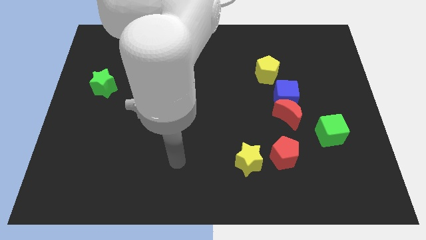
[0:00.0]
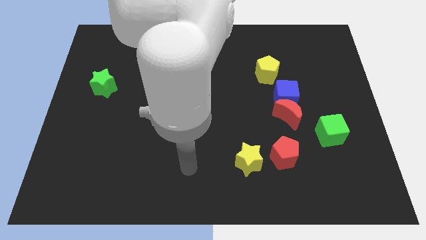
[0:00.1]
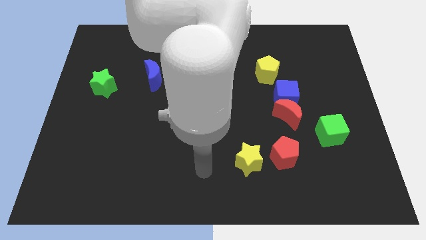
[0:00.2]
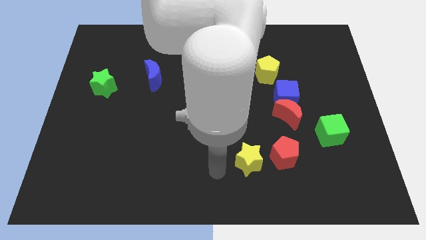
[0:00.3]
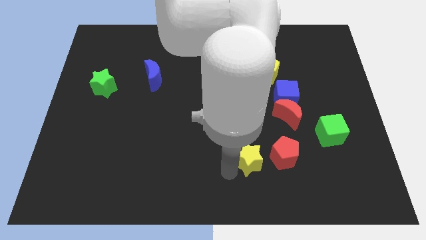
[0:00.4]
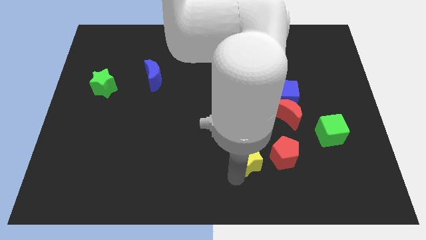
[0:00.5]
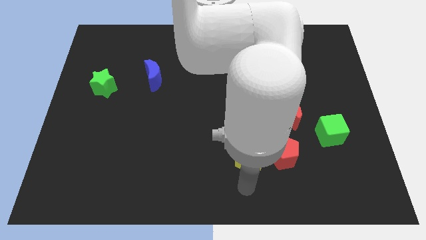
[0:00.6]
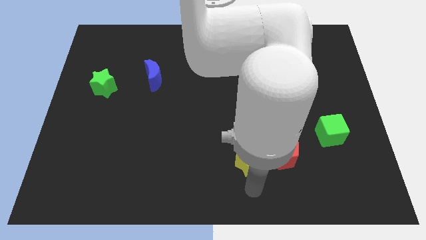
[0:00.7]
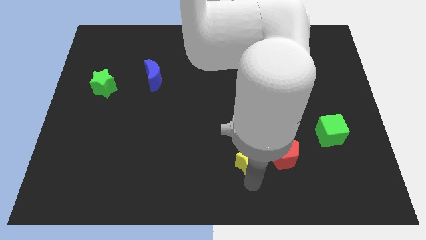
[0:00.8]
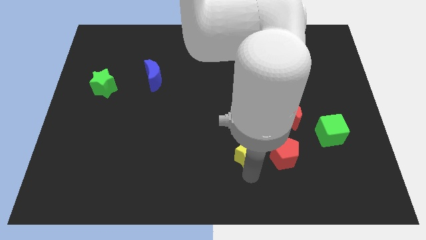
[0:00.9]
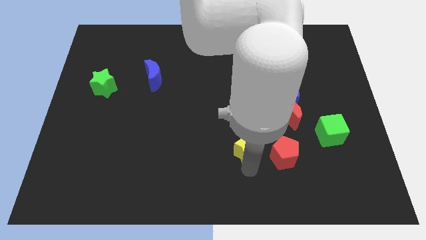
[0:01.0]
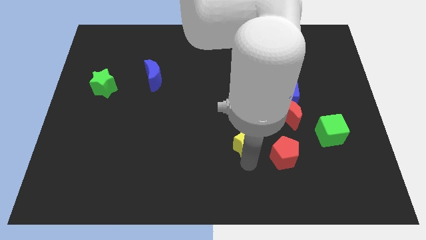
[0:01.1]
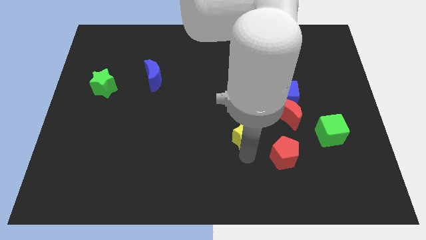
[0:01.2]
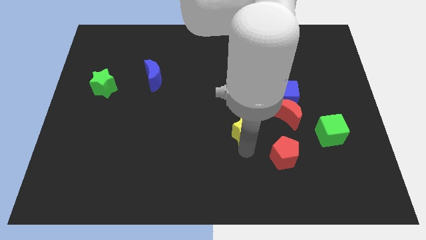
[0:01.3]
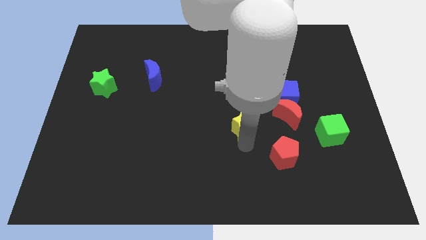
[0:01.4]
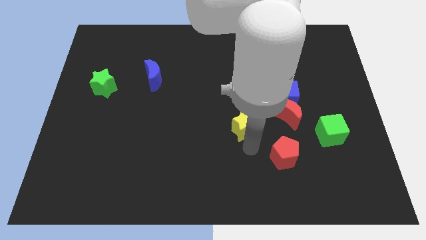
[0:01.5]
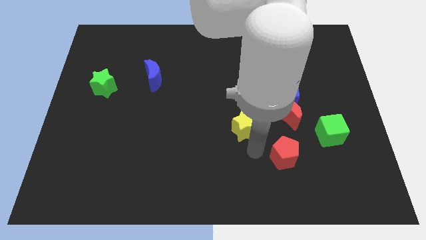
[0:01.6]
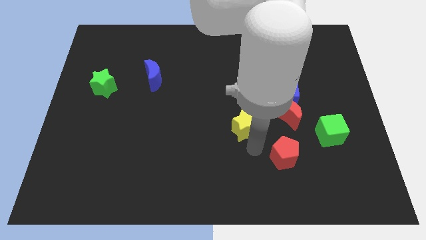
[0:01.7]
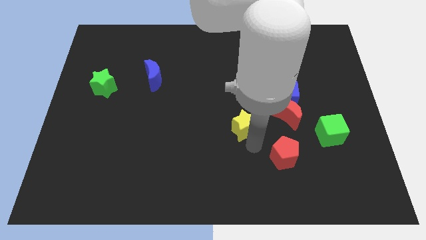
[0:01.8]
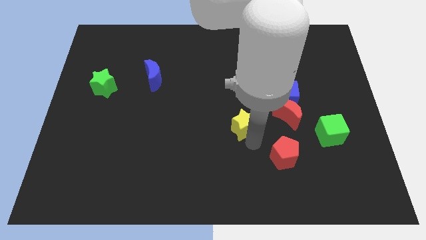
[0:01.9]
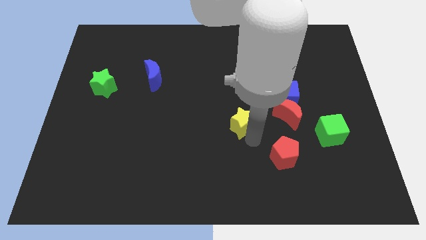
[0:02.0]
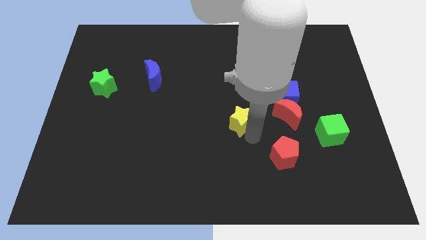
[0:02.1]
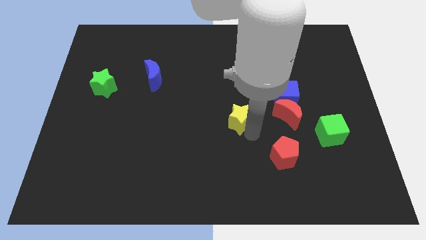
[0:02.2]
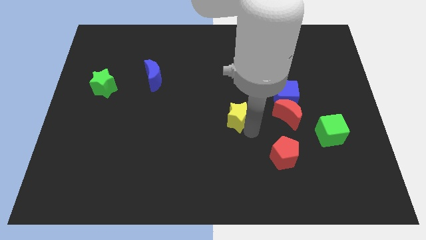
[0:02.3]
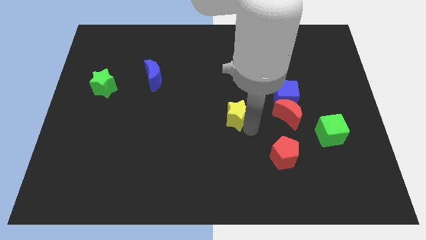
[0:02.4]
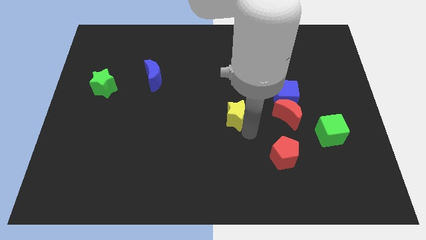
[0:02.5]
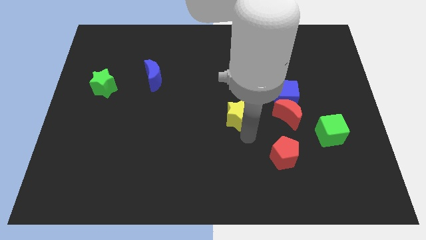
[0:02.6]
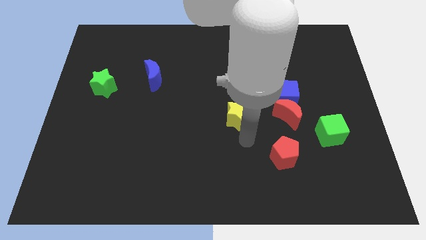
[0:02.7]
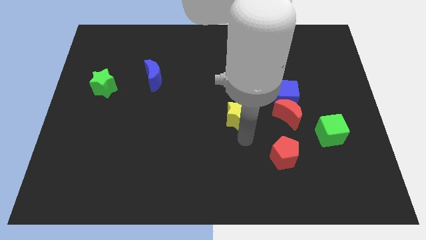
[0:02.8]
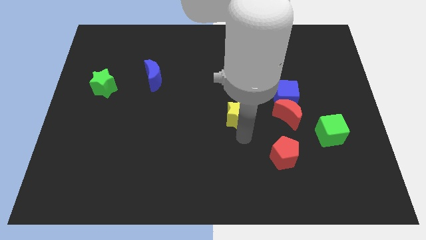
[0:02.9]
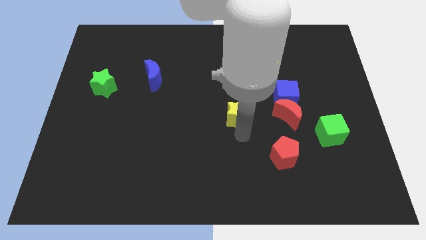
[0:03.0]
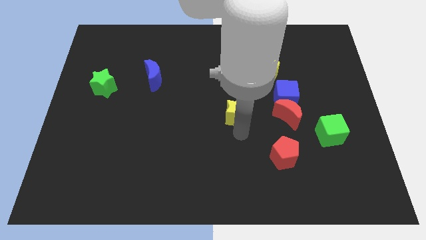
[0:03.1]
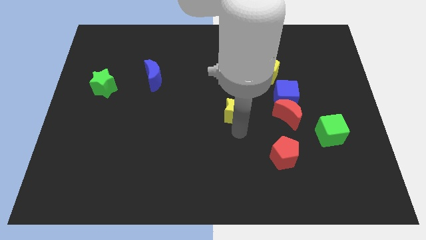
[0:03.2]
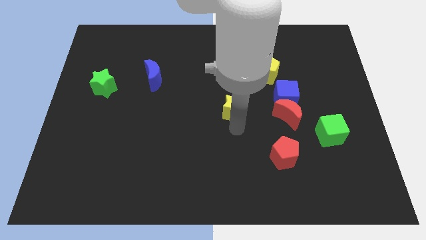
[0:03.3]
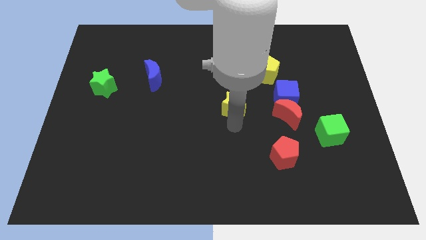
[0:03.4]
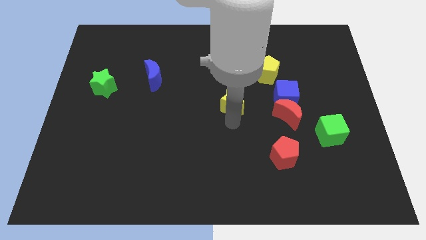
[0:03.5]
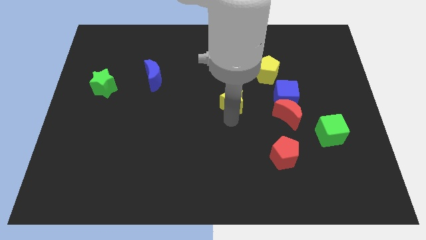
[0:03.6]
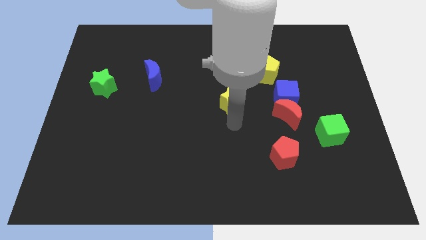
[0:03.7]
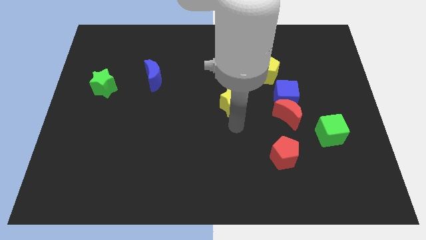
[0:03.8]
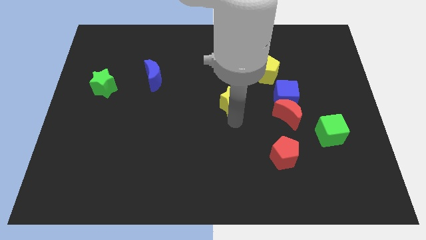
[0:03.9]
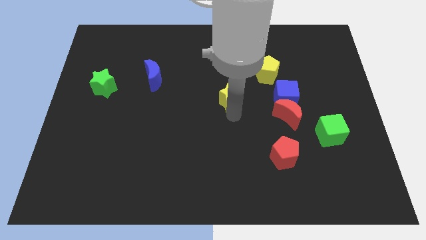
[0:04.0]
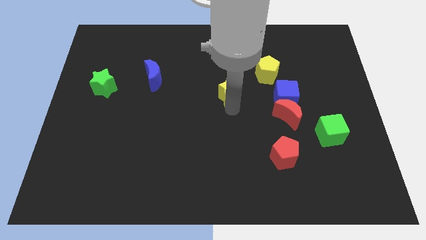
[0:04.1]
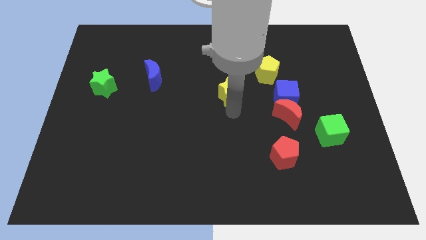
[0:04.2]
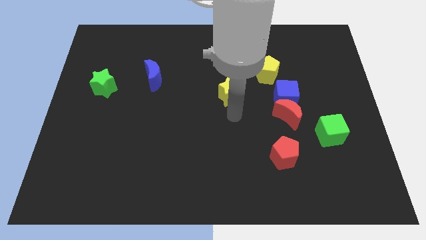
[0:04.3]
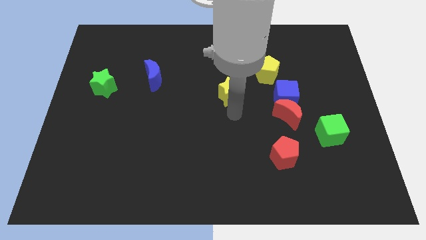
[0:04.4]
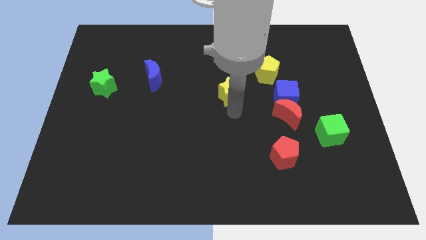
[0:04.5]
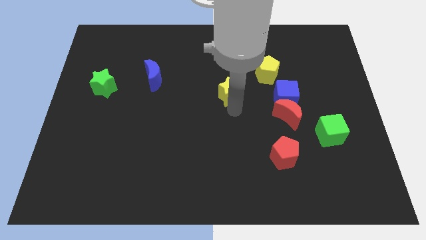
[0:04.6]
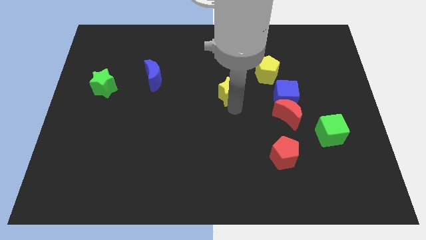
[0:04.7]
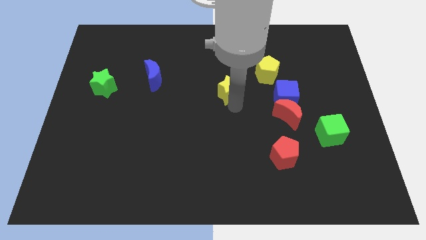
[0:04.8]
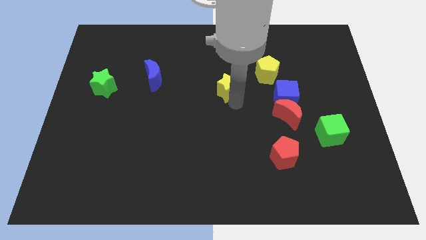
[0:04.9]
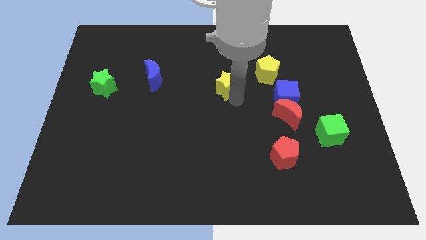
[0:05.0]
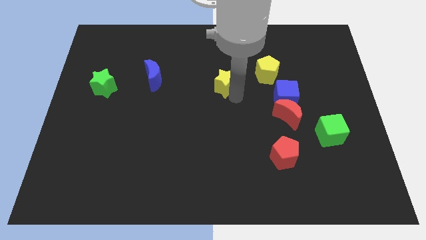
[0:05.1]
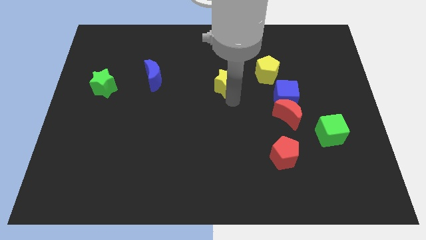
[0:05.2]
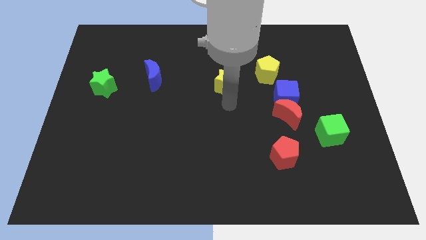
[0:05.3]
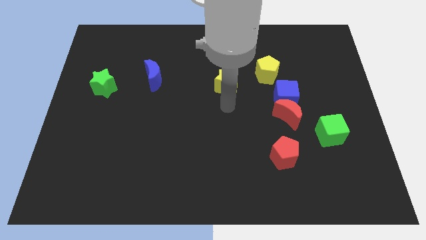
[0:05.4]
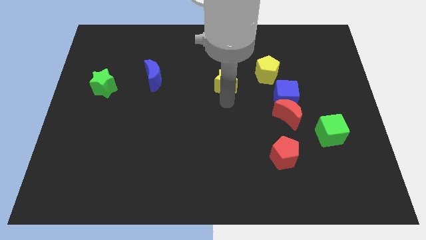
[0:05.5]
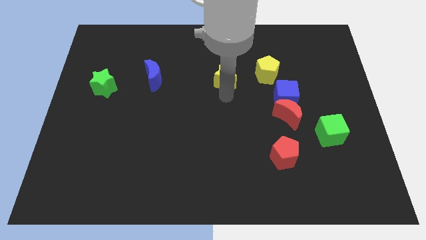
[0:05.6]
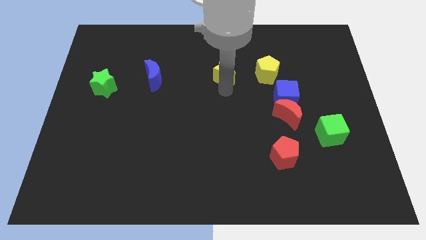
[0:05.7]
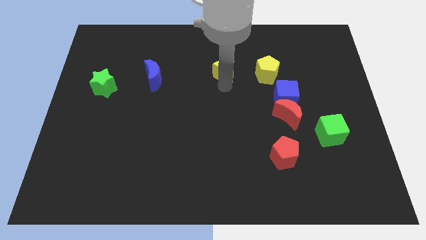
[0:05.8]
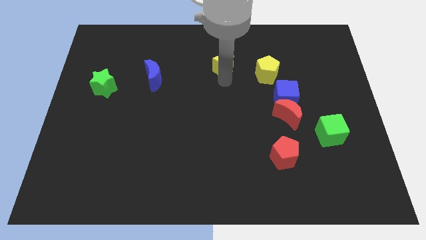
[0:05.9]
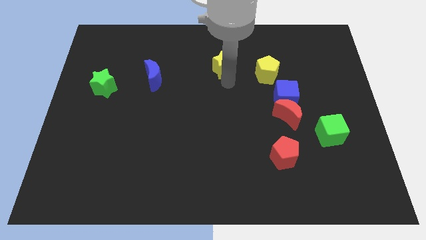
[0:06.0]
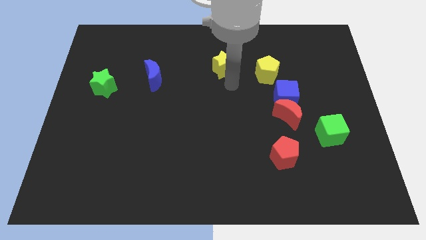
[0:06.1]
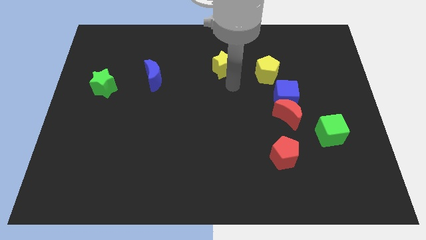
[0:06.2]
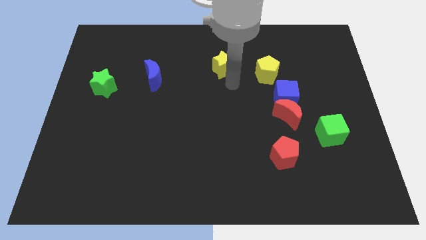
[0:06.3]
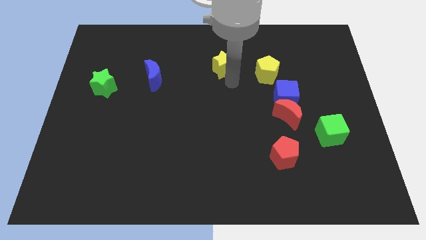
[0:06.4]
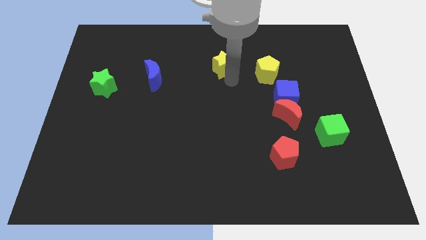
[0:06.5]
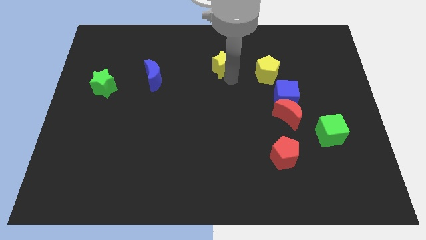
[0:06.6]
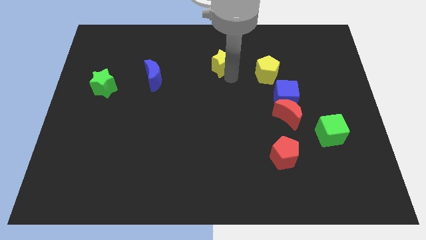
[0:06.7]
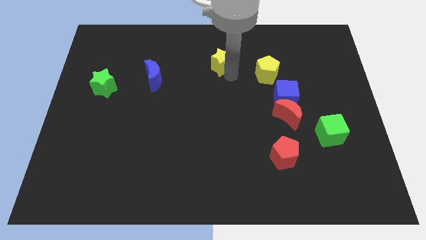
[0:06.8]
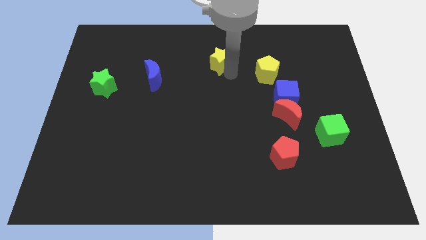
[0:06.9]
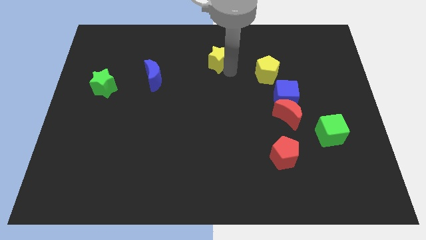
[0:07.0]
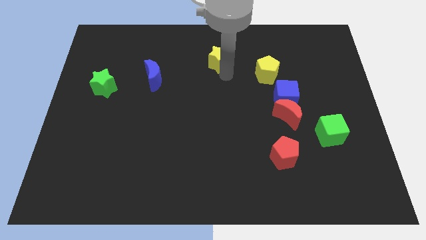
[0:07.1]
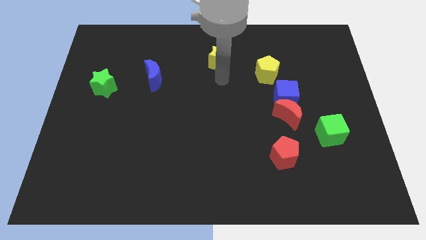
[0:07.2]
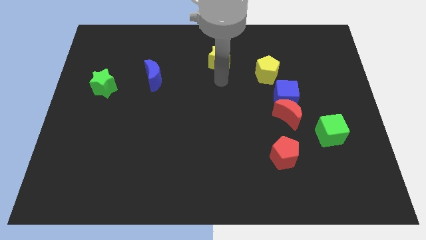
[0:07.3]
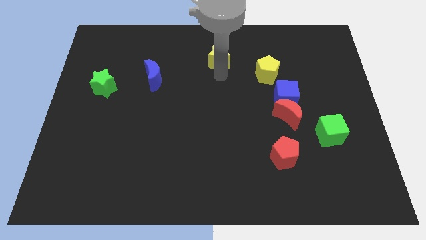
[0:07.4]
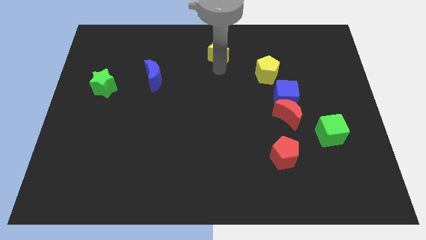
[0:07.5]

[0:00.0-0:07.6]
slide the yellow star to the top side
